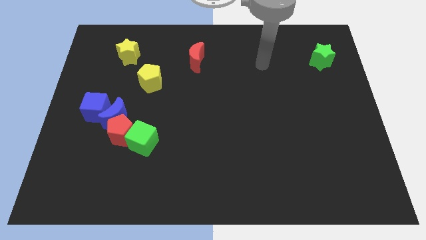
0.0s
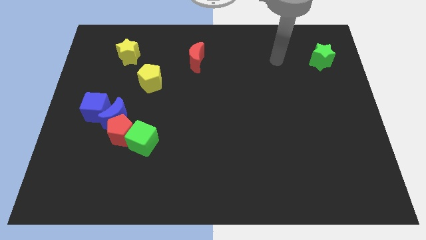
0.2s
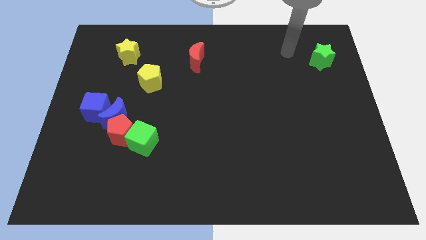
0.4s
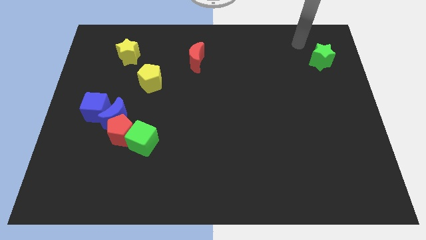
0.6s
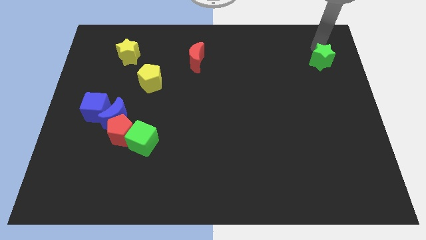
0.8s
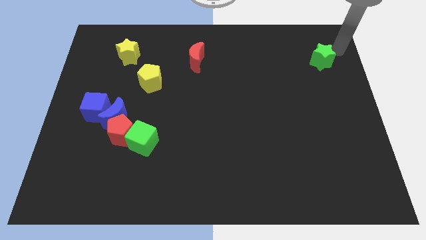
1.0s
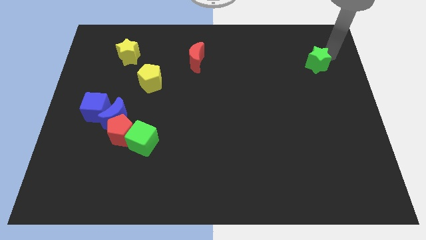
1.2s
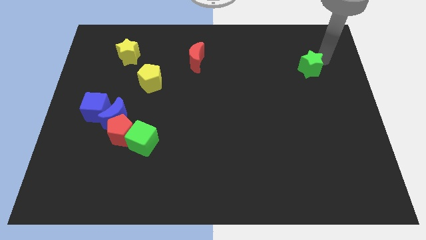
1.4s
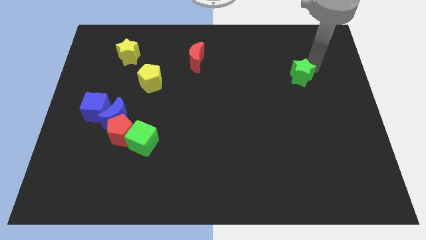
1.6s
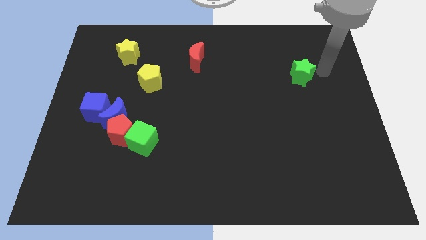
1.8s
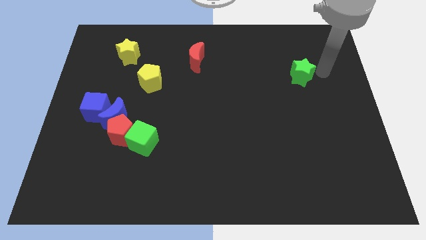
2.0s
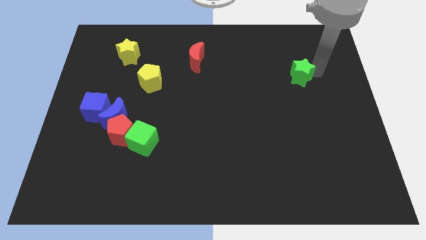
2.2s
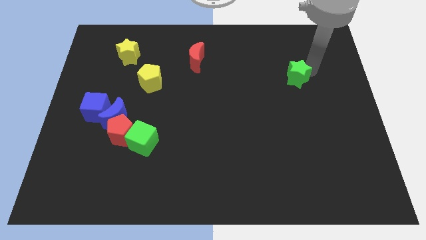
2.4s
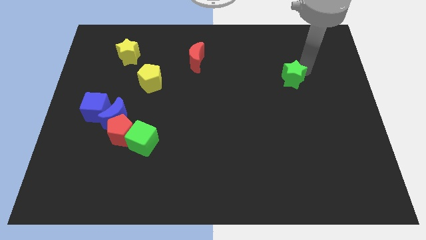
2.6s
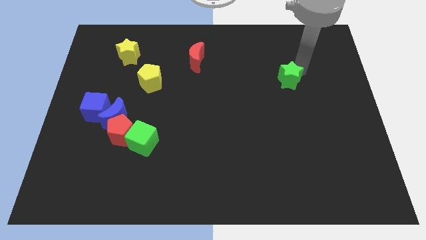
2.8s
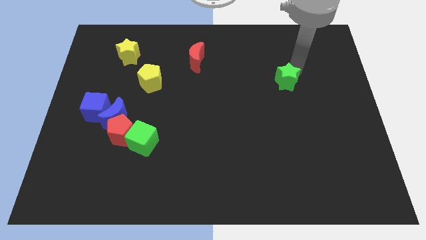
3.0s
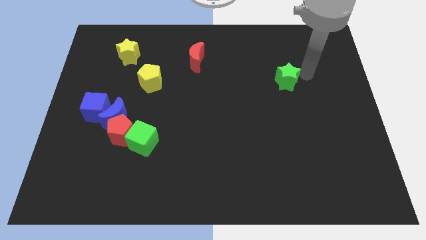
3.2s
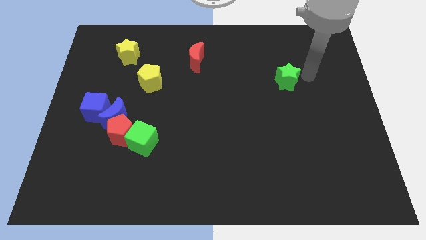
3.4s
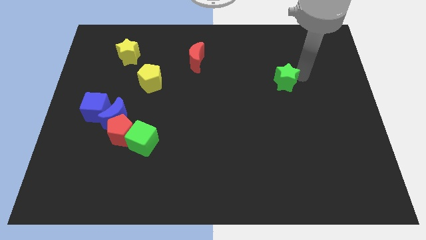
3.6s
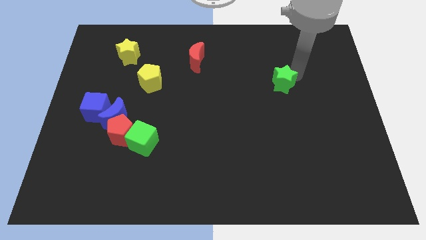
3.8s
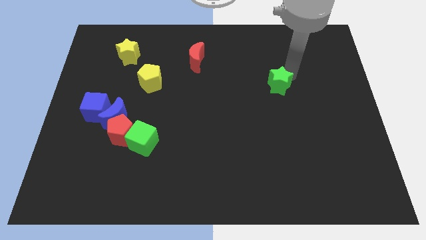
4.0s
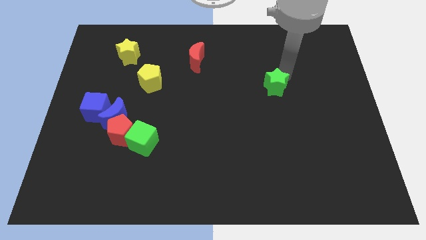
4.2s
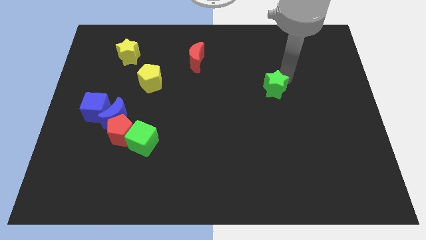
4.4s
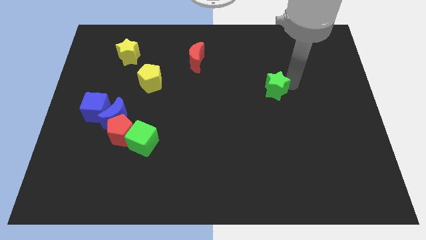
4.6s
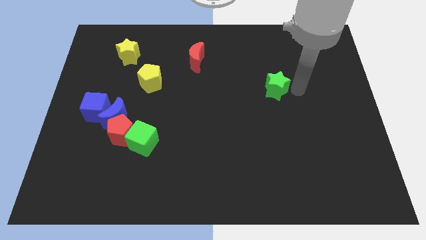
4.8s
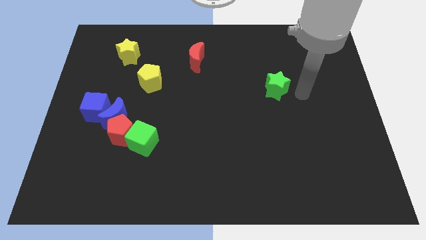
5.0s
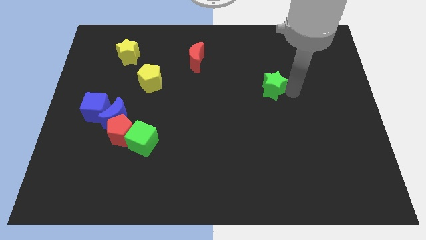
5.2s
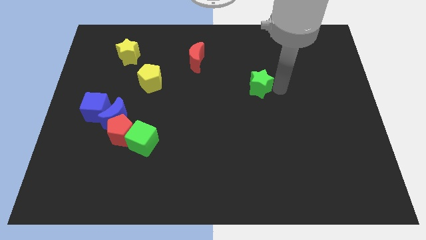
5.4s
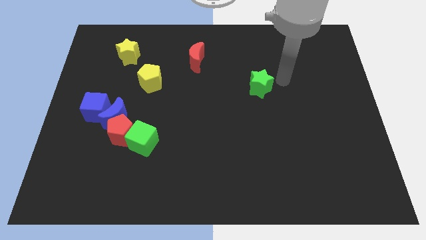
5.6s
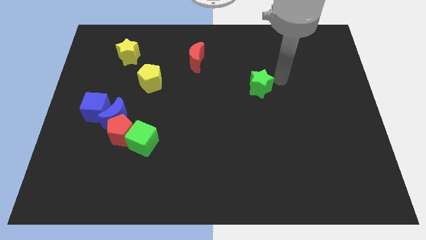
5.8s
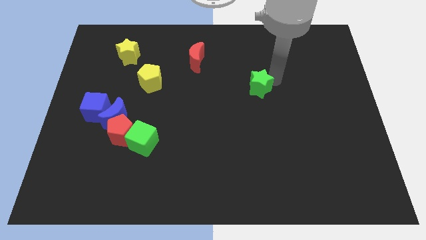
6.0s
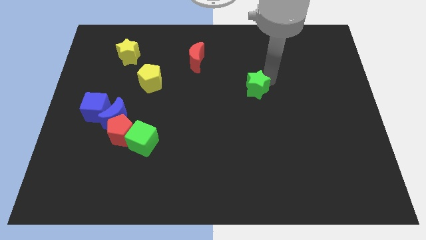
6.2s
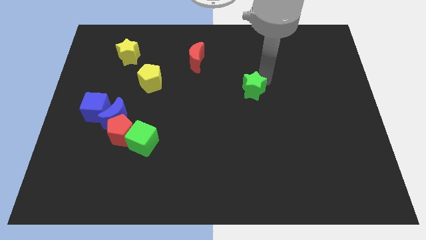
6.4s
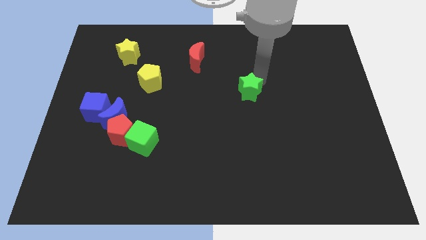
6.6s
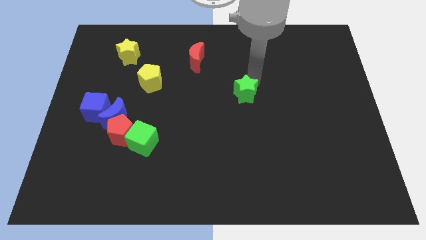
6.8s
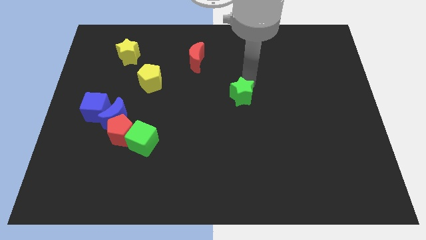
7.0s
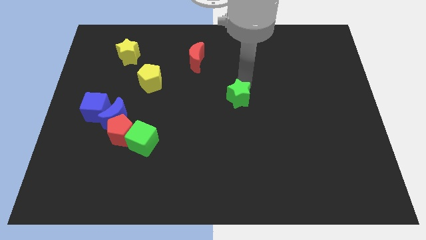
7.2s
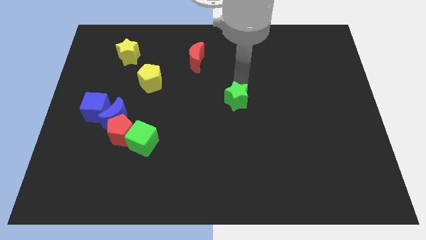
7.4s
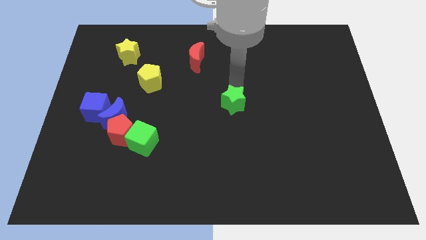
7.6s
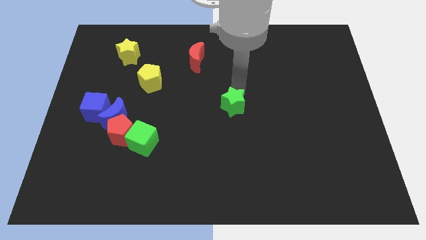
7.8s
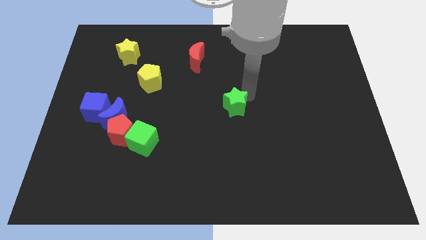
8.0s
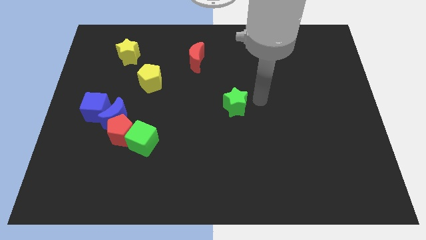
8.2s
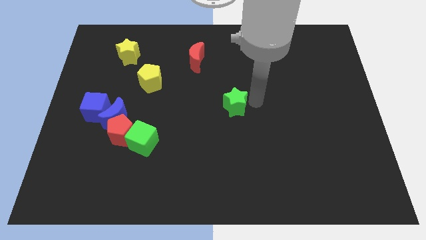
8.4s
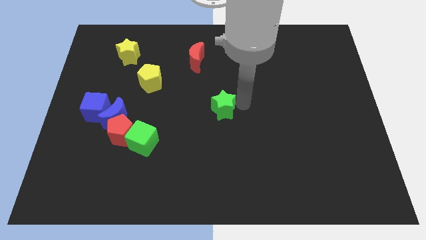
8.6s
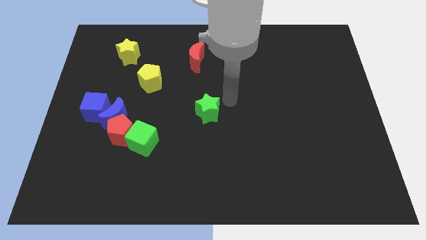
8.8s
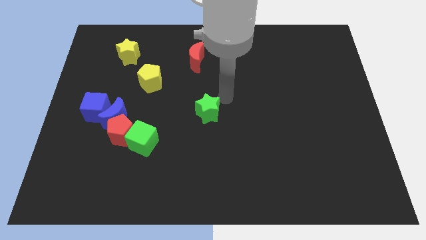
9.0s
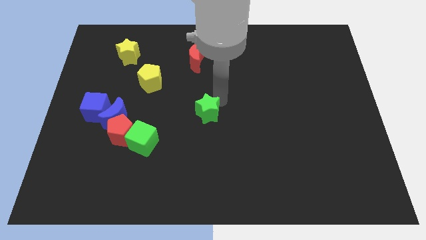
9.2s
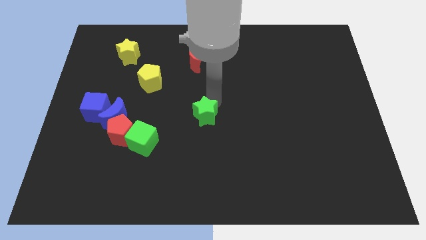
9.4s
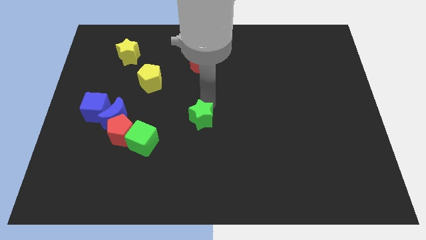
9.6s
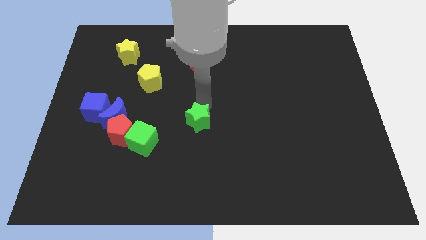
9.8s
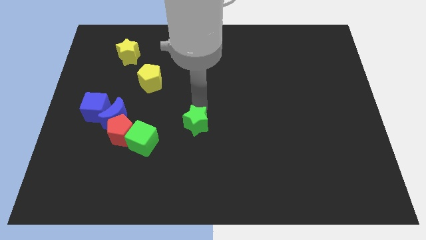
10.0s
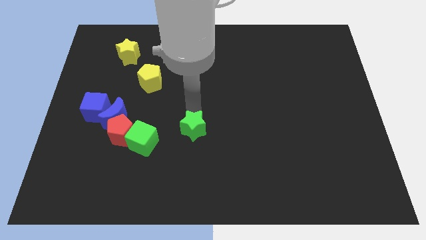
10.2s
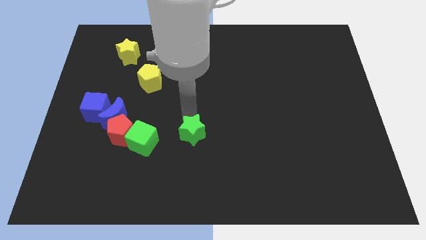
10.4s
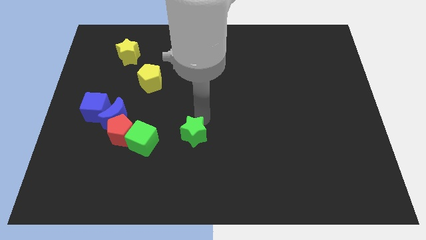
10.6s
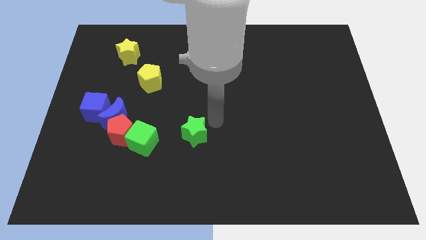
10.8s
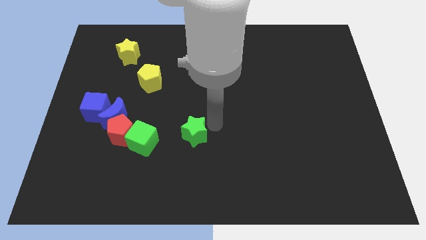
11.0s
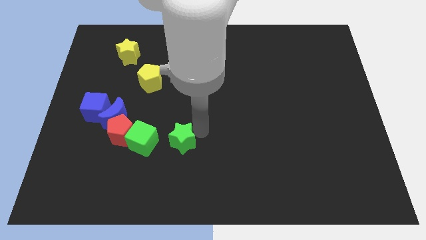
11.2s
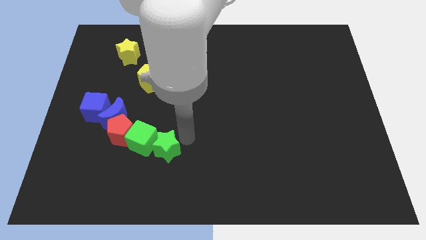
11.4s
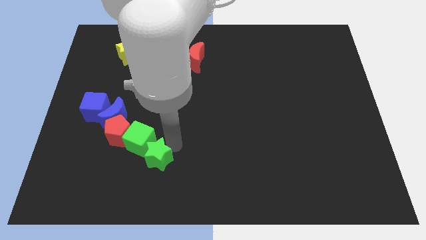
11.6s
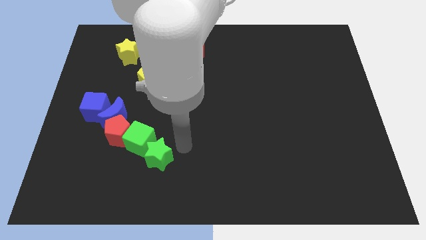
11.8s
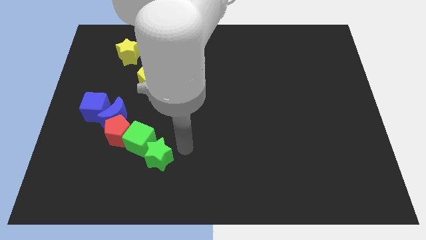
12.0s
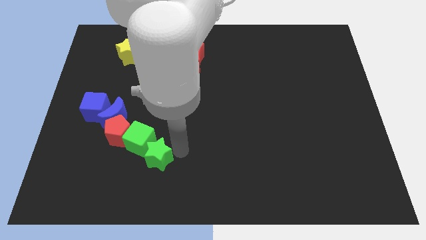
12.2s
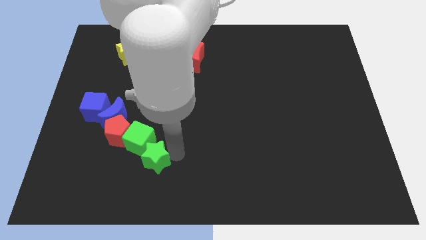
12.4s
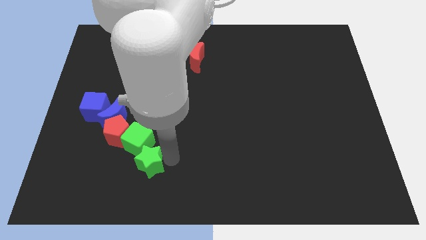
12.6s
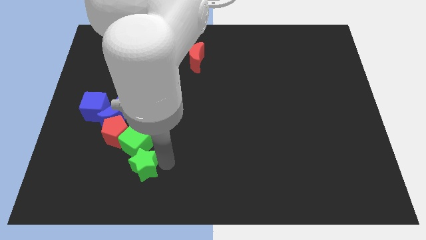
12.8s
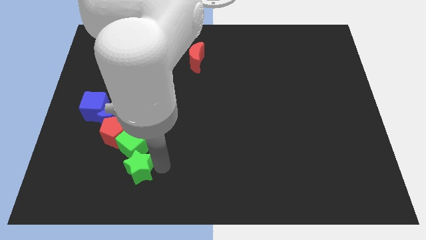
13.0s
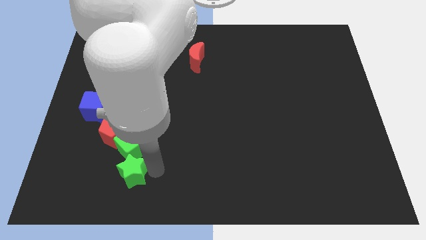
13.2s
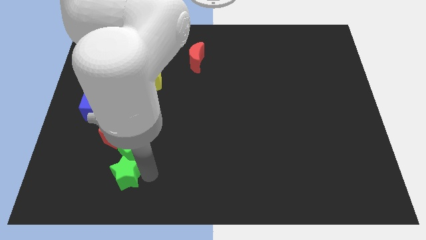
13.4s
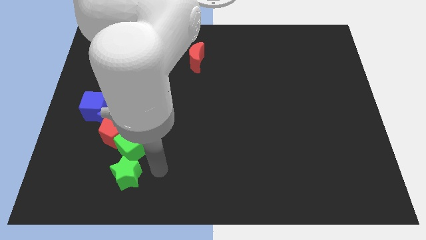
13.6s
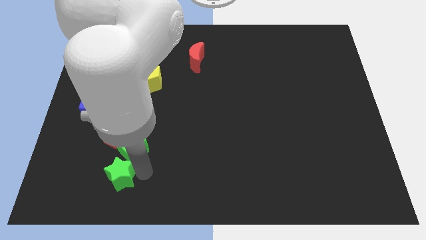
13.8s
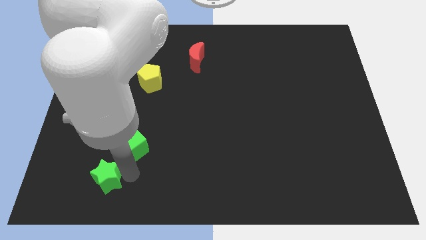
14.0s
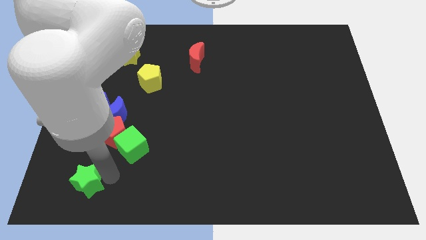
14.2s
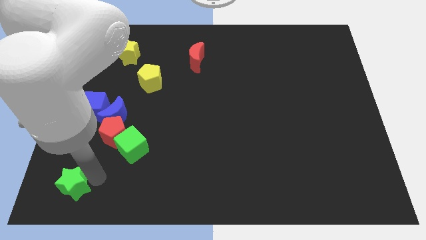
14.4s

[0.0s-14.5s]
move the green star to the bottom left corner
